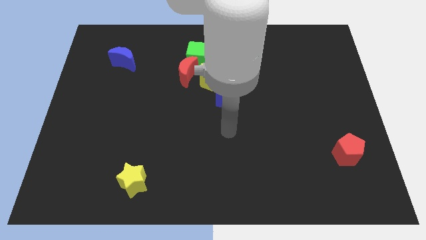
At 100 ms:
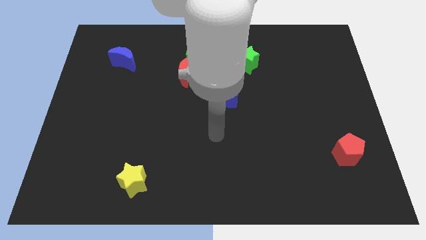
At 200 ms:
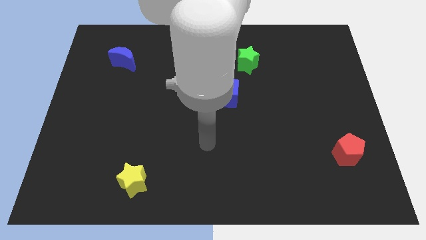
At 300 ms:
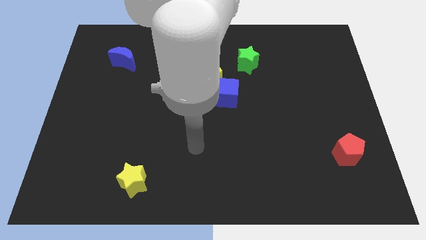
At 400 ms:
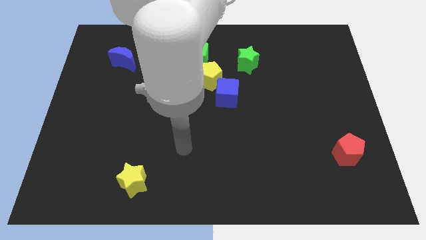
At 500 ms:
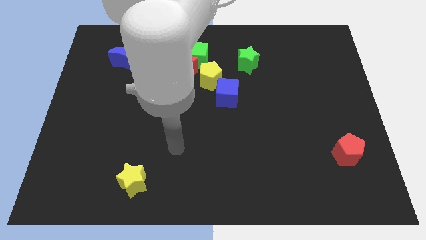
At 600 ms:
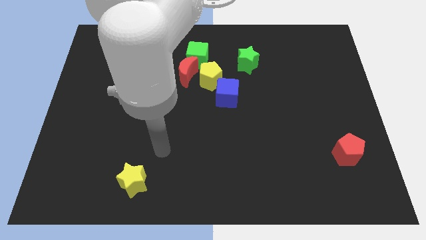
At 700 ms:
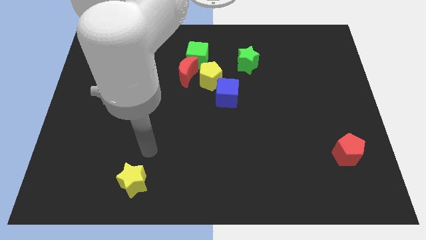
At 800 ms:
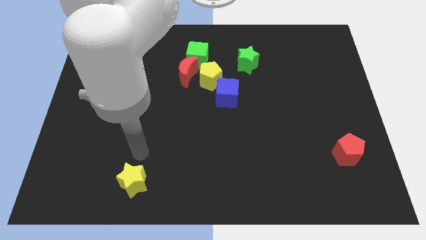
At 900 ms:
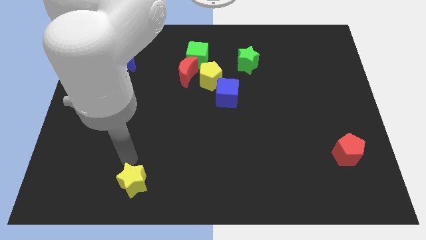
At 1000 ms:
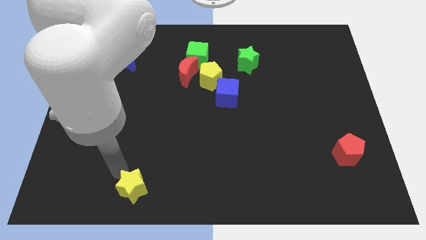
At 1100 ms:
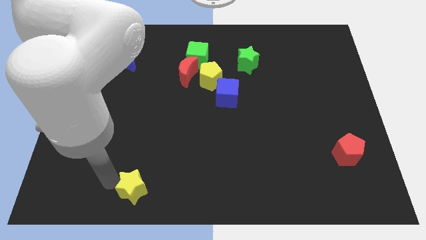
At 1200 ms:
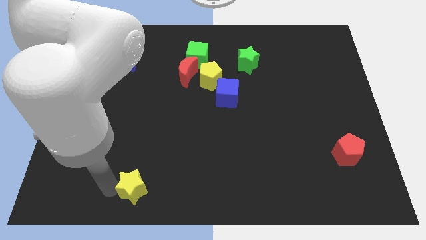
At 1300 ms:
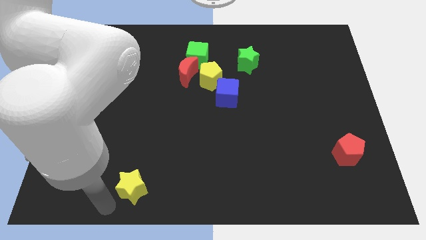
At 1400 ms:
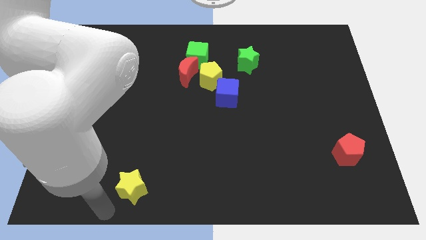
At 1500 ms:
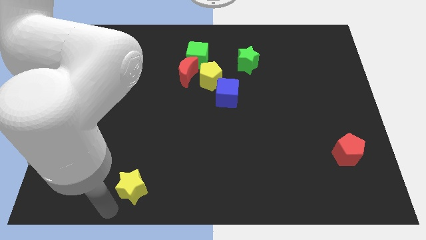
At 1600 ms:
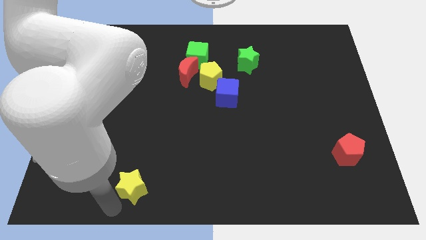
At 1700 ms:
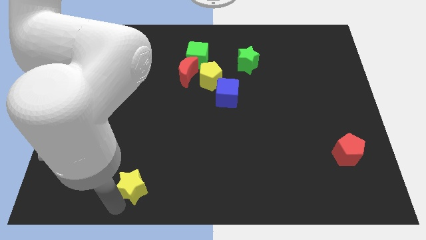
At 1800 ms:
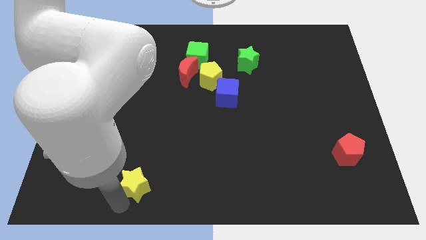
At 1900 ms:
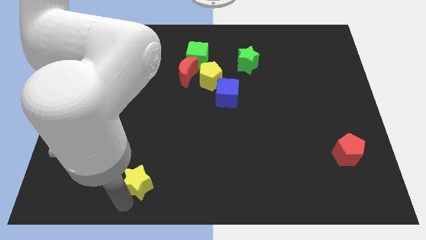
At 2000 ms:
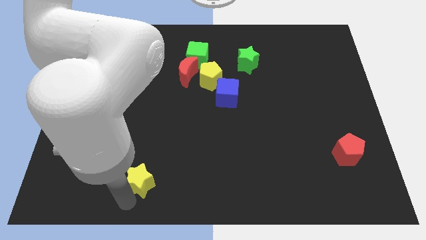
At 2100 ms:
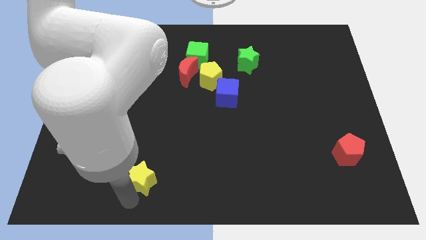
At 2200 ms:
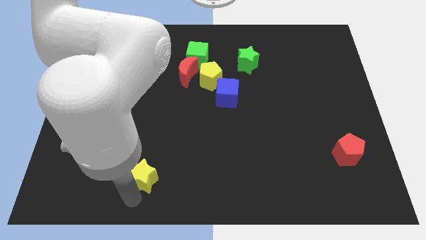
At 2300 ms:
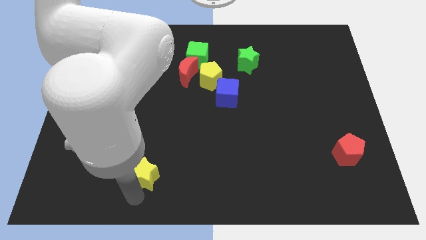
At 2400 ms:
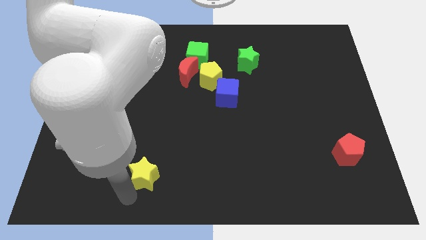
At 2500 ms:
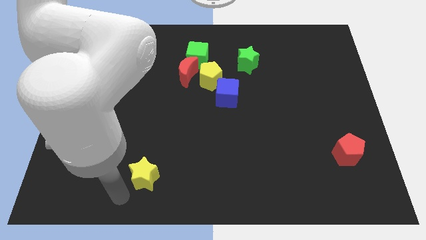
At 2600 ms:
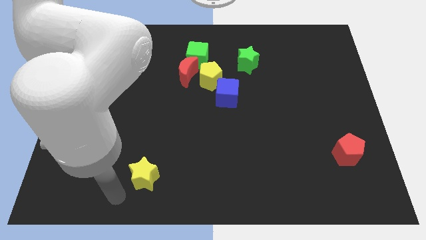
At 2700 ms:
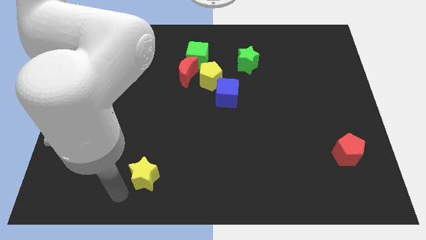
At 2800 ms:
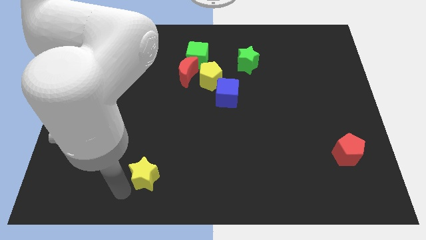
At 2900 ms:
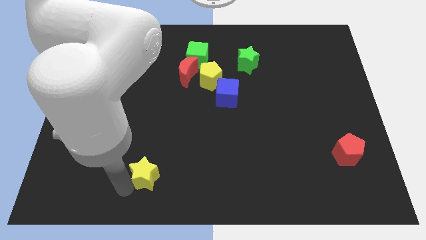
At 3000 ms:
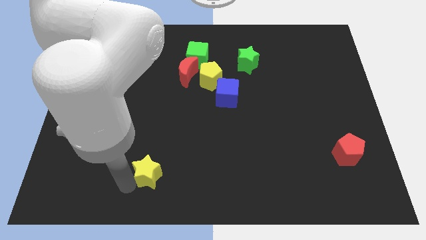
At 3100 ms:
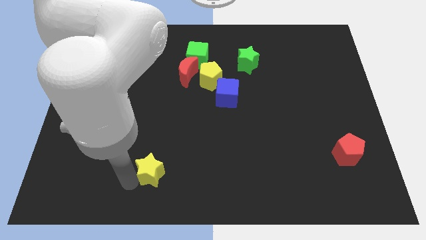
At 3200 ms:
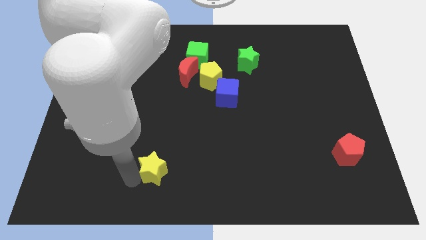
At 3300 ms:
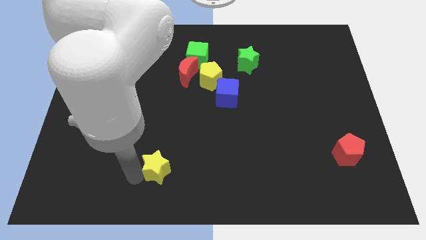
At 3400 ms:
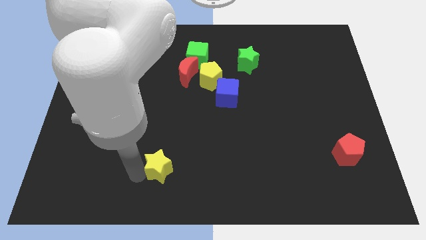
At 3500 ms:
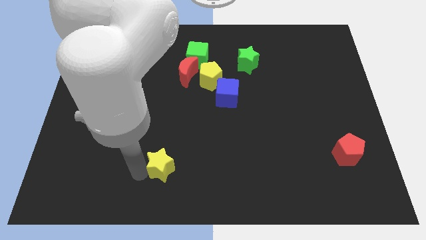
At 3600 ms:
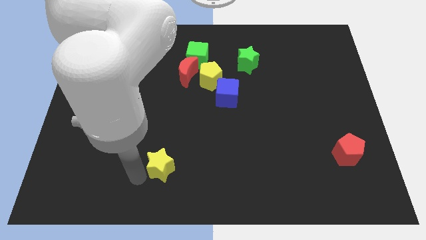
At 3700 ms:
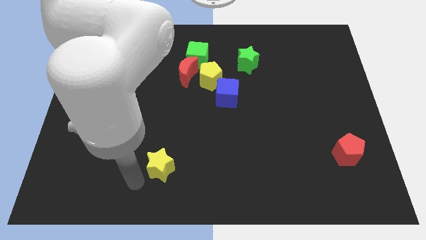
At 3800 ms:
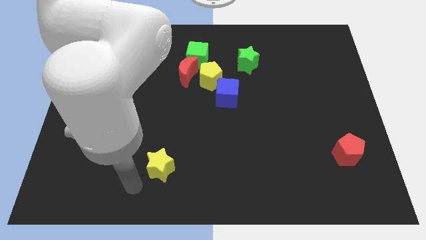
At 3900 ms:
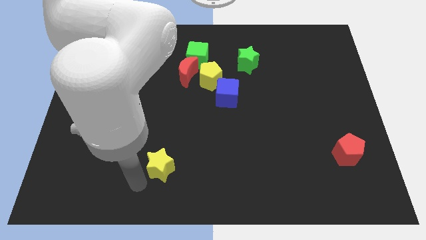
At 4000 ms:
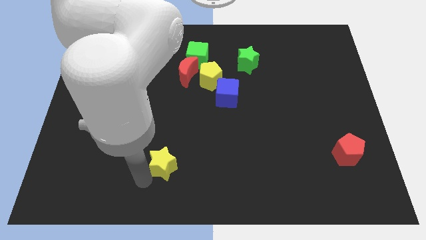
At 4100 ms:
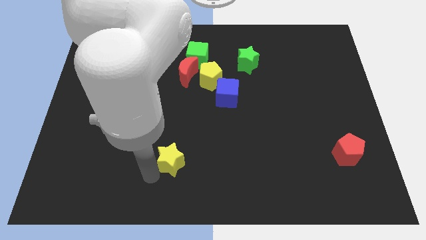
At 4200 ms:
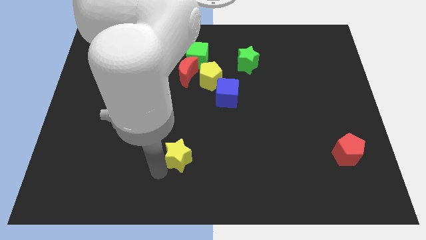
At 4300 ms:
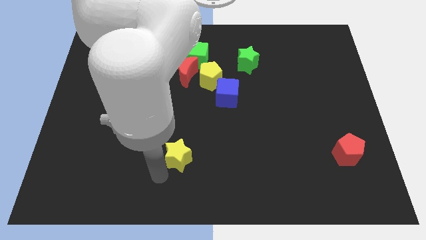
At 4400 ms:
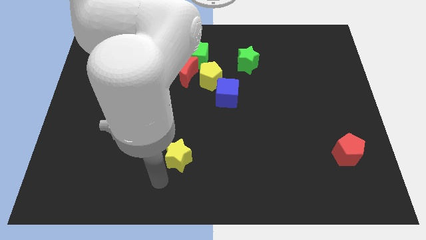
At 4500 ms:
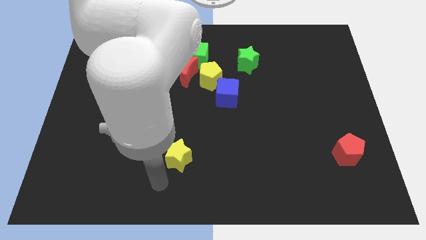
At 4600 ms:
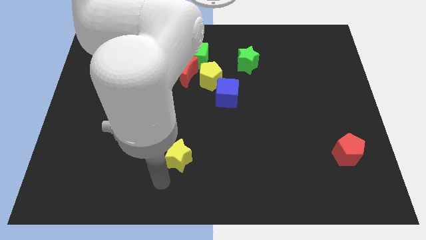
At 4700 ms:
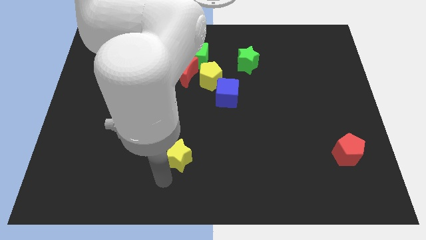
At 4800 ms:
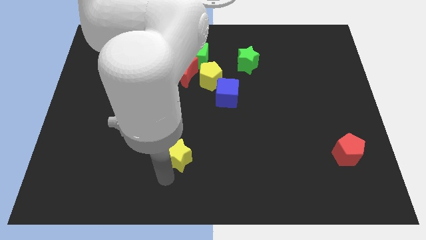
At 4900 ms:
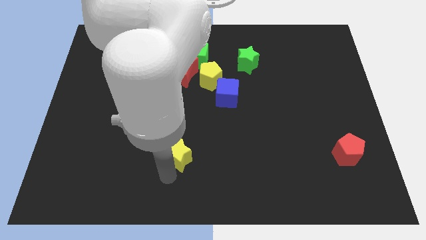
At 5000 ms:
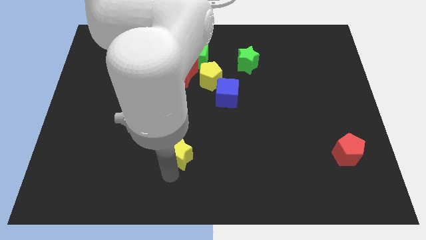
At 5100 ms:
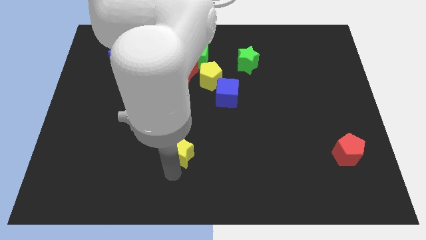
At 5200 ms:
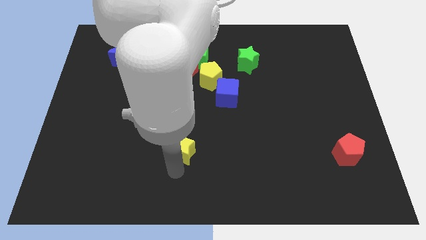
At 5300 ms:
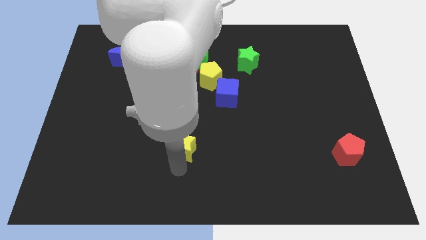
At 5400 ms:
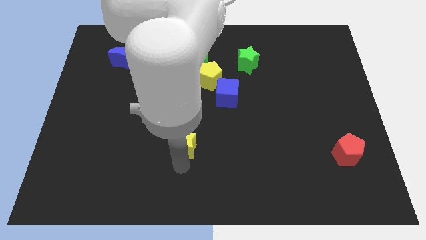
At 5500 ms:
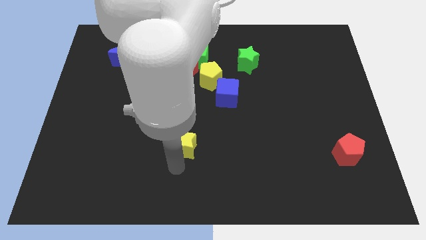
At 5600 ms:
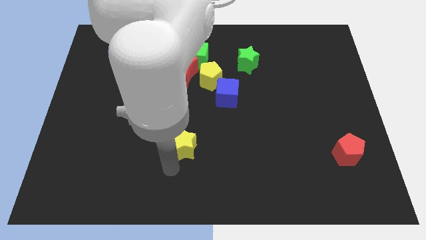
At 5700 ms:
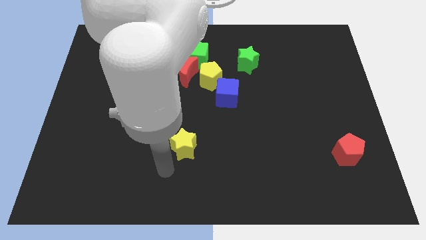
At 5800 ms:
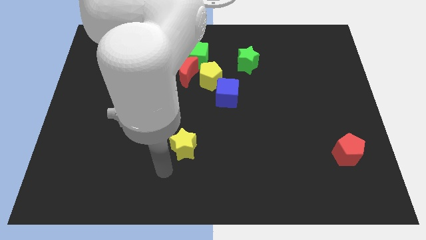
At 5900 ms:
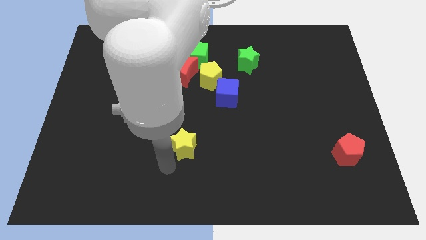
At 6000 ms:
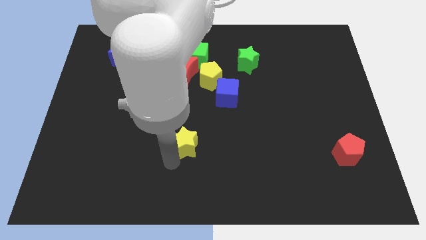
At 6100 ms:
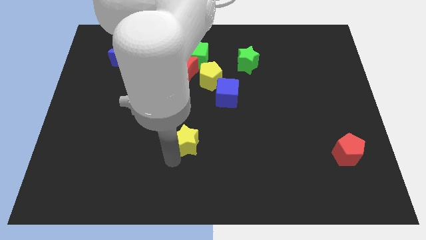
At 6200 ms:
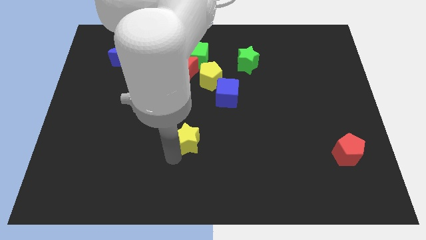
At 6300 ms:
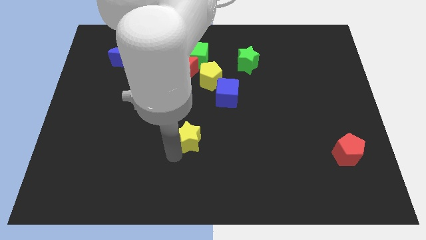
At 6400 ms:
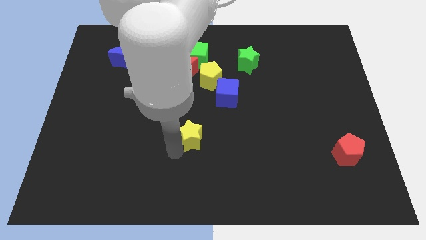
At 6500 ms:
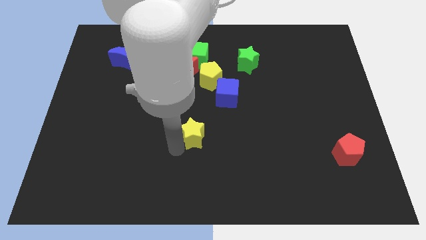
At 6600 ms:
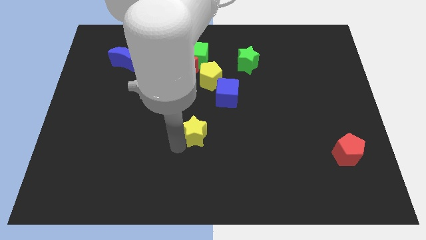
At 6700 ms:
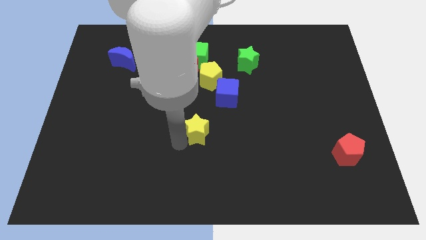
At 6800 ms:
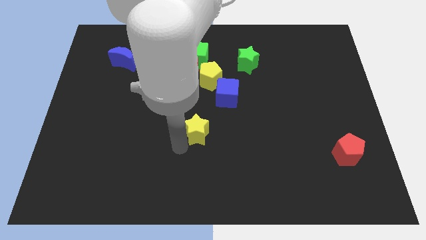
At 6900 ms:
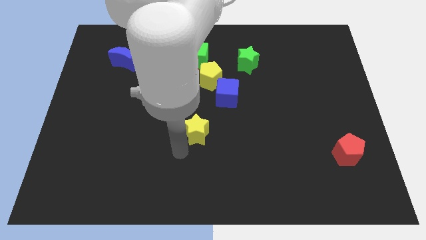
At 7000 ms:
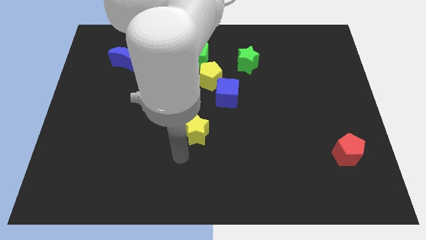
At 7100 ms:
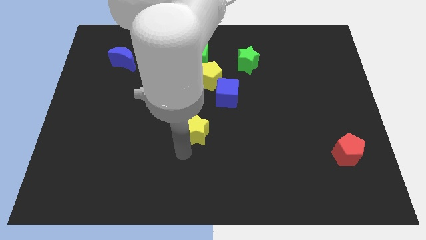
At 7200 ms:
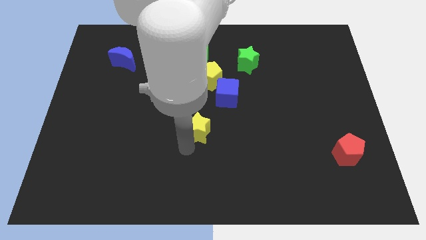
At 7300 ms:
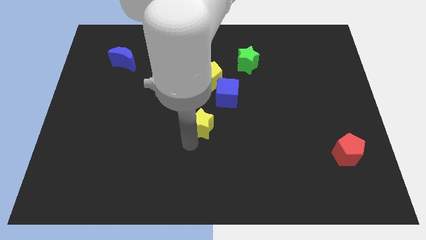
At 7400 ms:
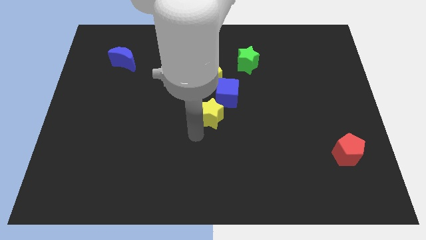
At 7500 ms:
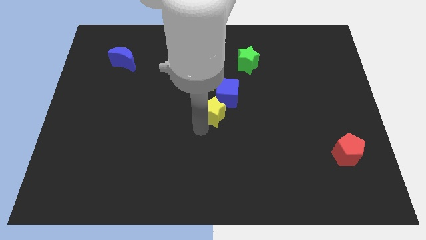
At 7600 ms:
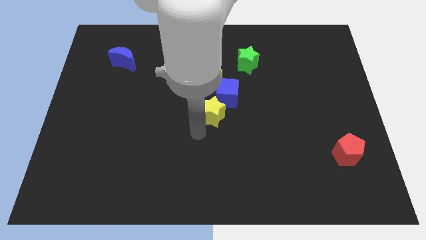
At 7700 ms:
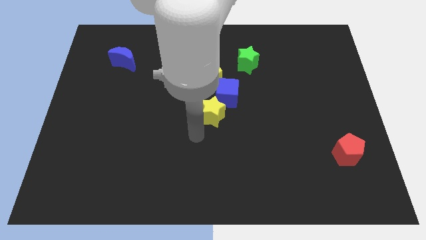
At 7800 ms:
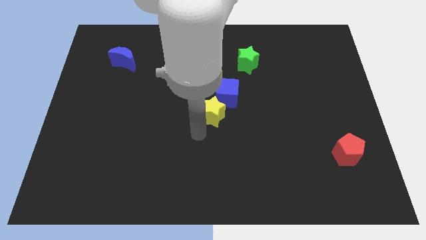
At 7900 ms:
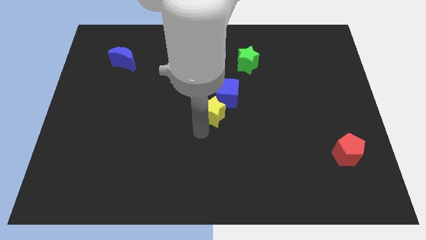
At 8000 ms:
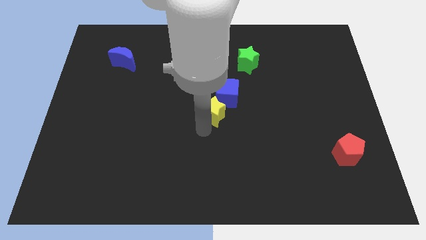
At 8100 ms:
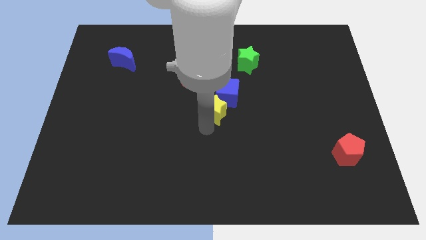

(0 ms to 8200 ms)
push the yellow star to the blue cube
